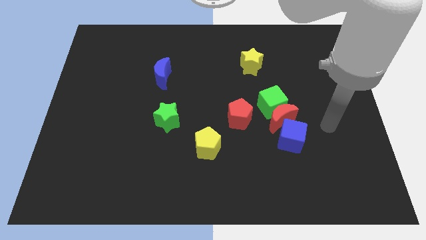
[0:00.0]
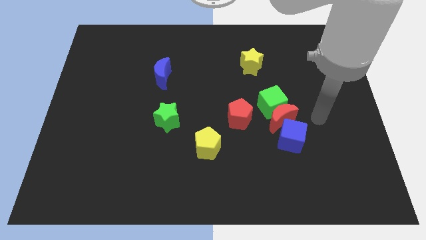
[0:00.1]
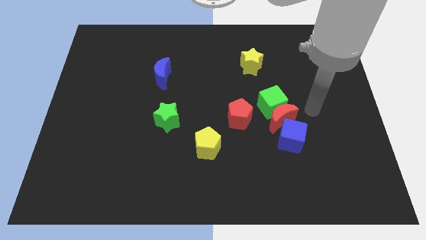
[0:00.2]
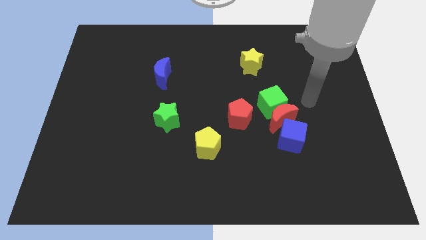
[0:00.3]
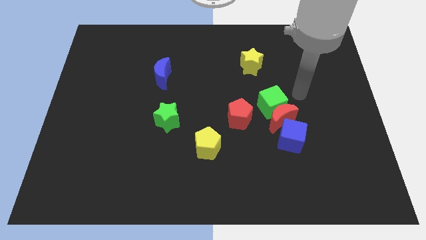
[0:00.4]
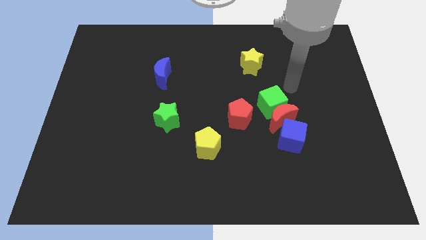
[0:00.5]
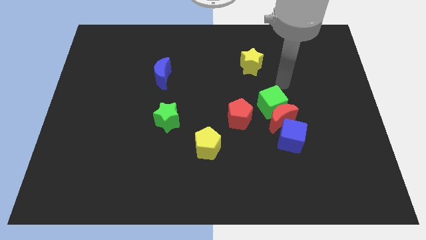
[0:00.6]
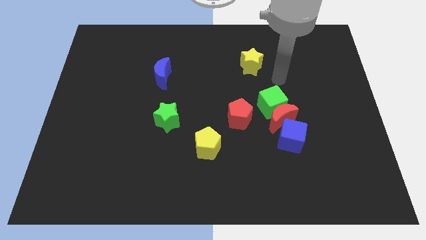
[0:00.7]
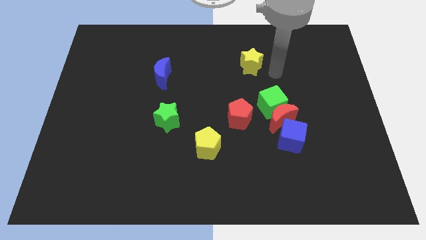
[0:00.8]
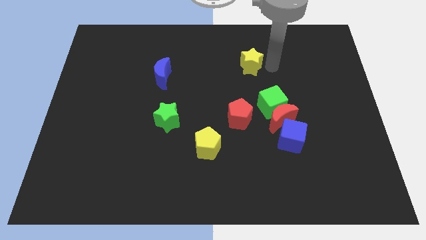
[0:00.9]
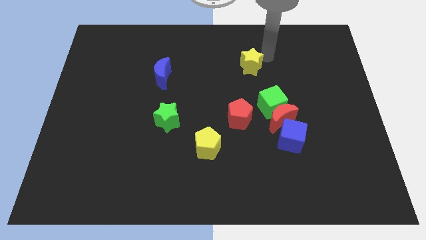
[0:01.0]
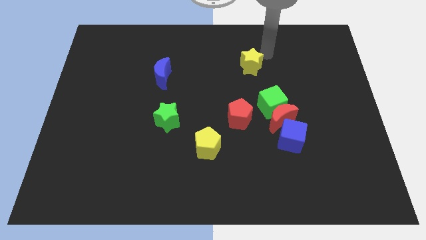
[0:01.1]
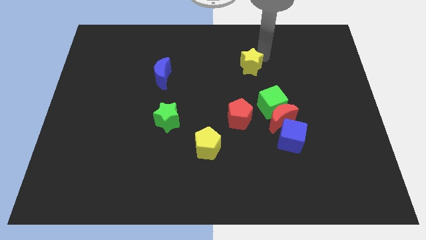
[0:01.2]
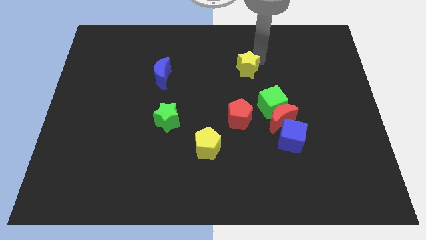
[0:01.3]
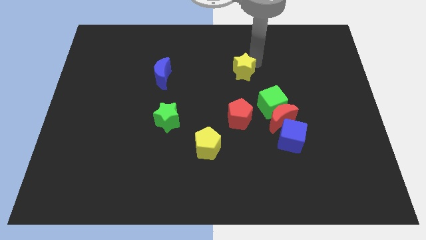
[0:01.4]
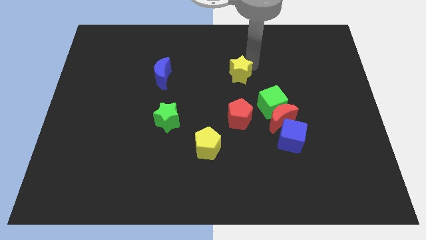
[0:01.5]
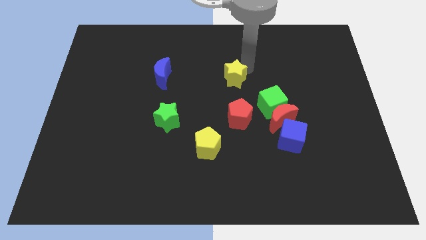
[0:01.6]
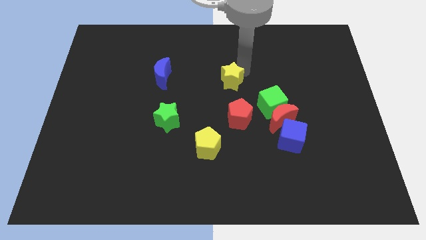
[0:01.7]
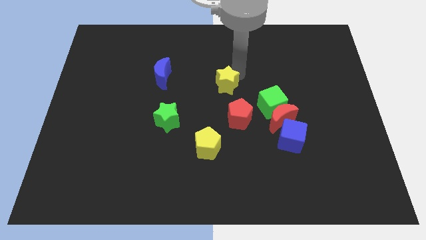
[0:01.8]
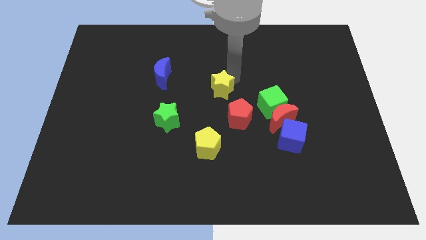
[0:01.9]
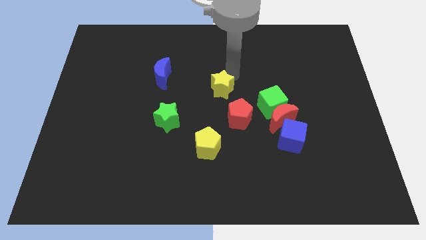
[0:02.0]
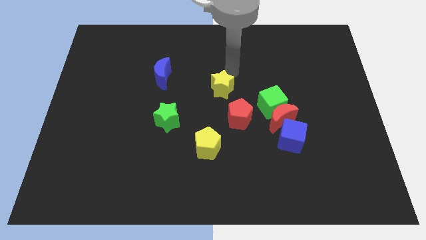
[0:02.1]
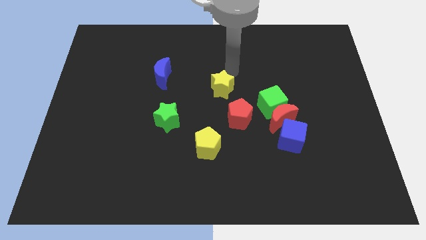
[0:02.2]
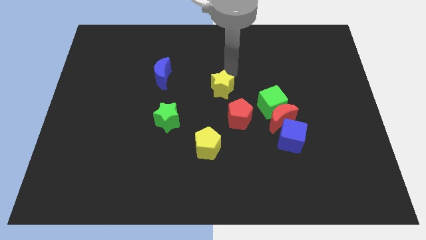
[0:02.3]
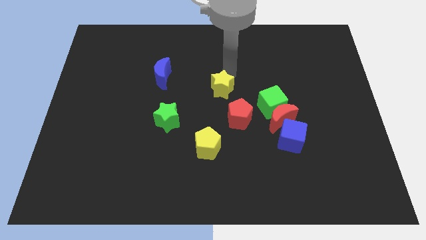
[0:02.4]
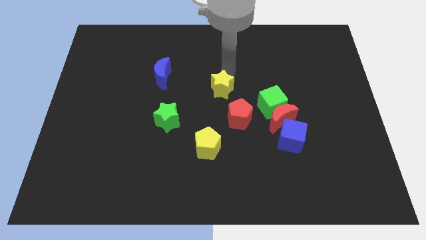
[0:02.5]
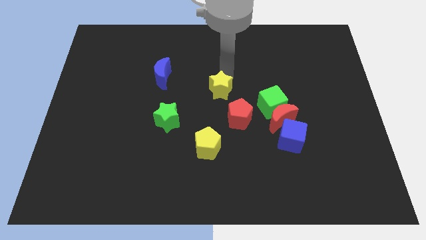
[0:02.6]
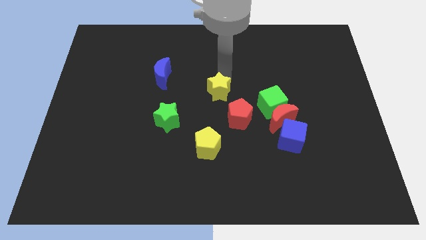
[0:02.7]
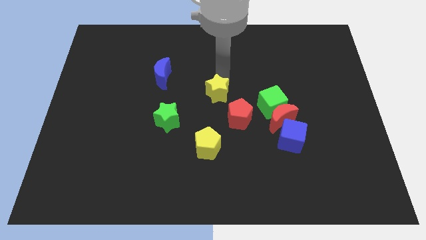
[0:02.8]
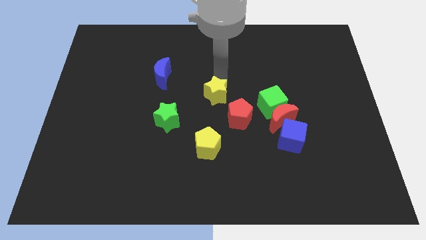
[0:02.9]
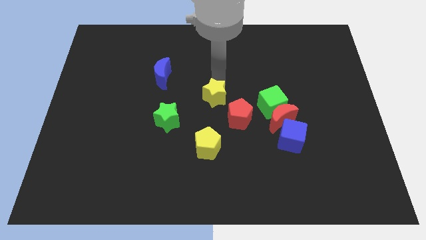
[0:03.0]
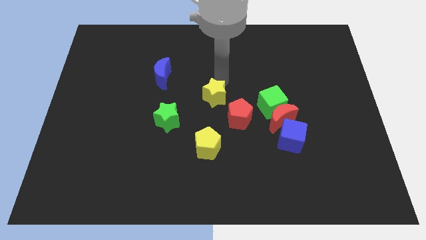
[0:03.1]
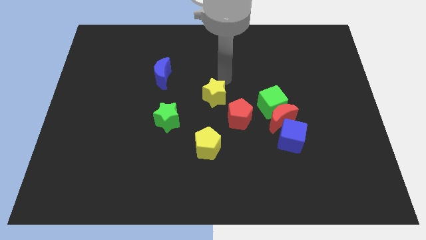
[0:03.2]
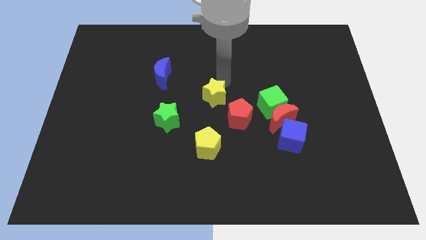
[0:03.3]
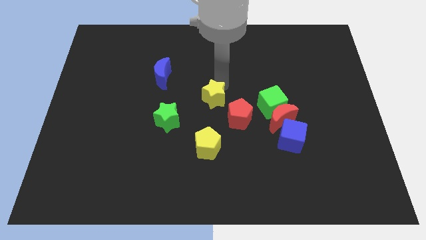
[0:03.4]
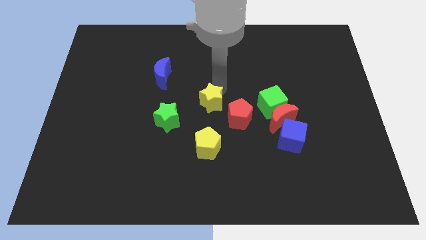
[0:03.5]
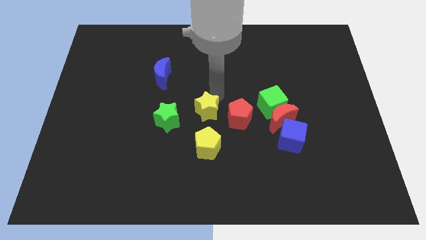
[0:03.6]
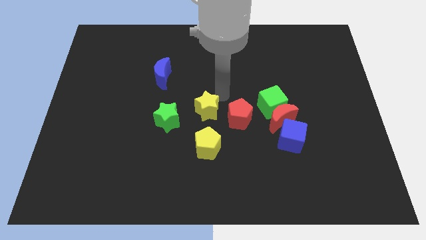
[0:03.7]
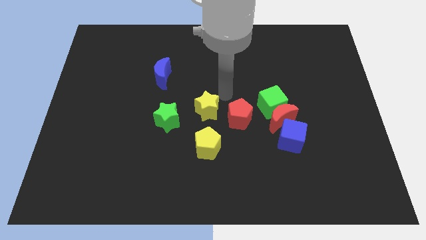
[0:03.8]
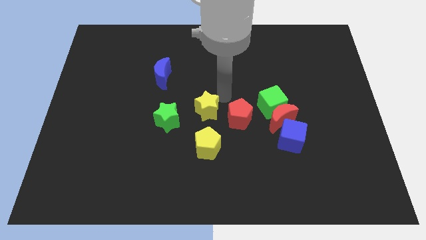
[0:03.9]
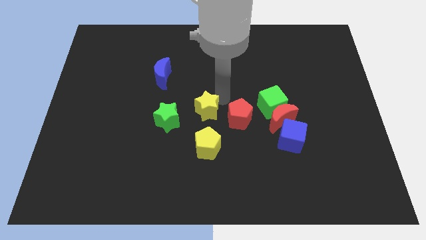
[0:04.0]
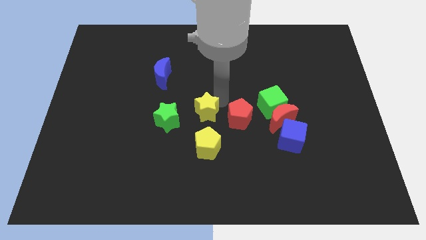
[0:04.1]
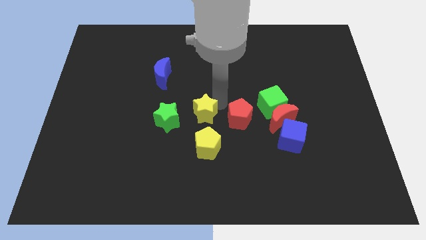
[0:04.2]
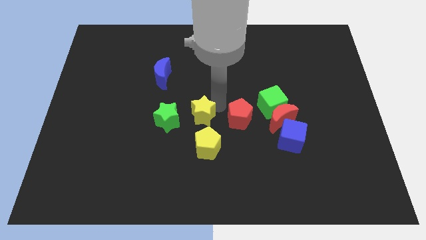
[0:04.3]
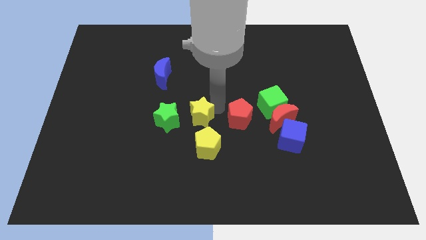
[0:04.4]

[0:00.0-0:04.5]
push the yellow star downwards and to the left diagonally

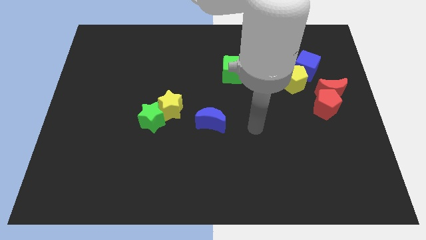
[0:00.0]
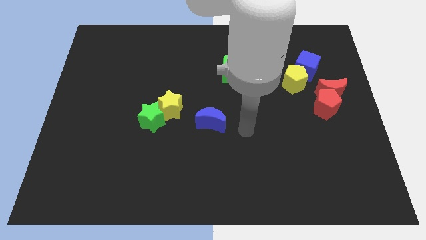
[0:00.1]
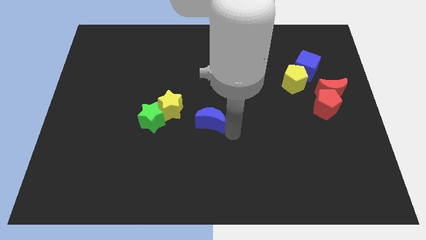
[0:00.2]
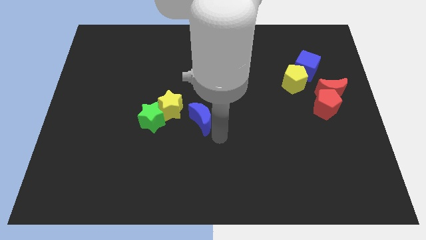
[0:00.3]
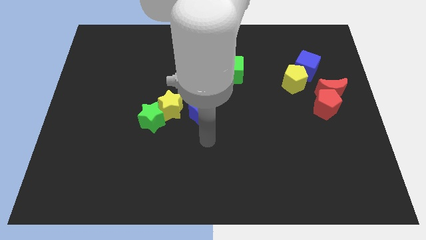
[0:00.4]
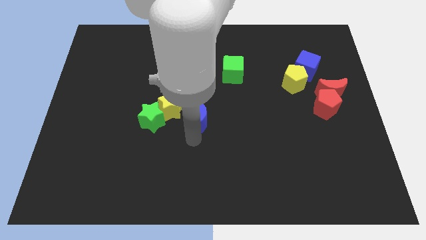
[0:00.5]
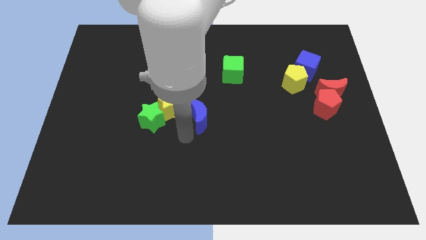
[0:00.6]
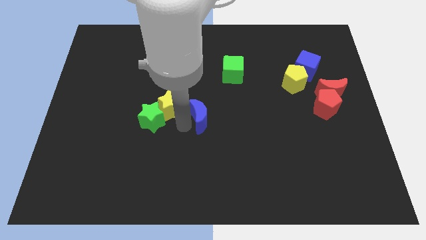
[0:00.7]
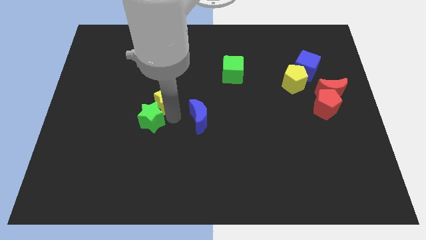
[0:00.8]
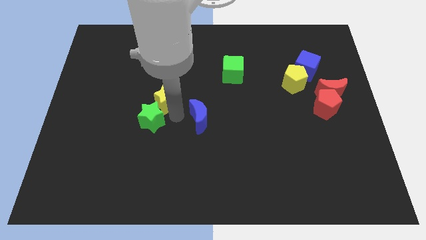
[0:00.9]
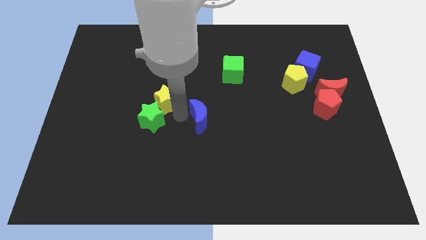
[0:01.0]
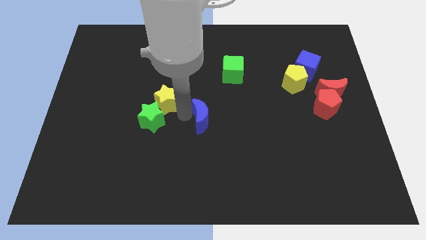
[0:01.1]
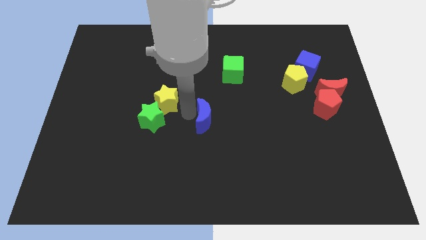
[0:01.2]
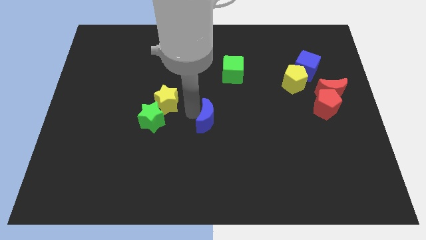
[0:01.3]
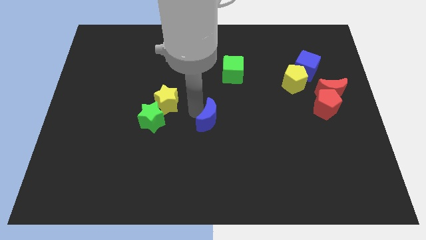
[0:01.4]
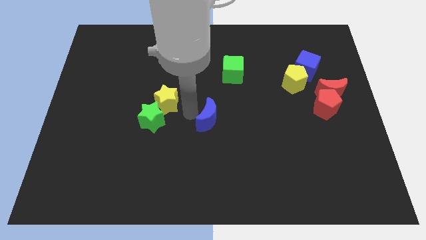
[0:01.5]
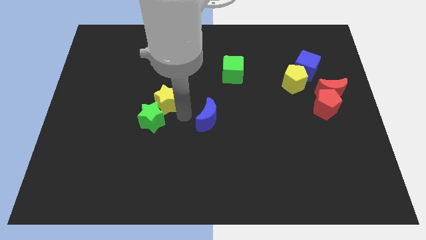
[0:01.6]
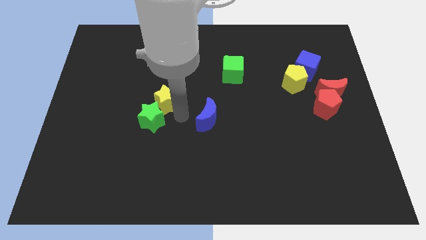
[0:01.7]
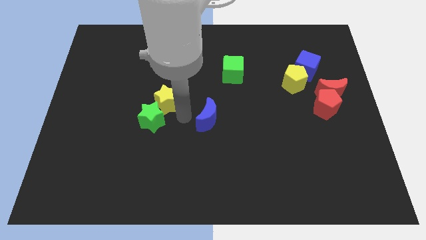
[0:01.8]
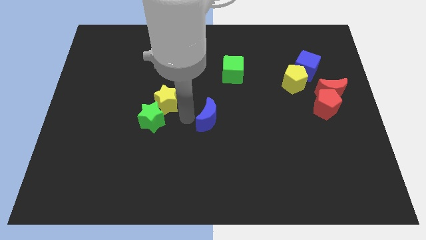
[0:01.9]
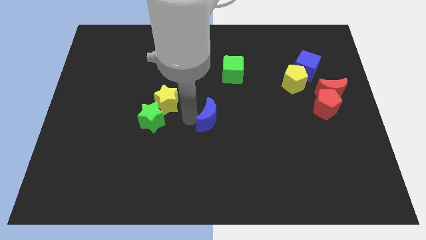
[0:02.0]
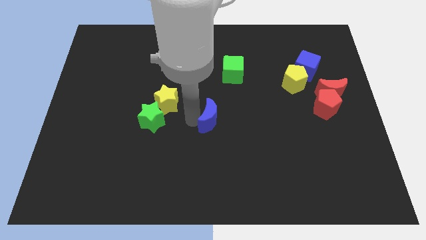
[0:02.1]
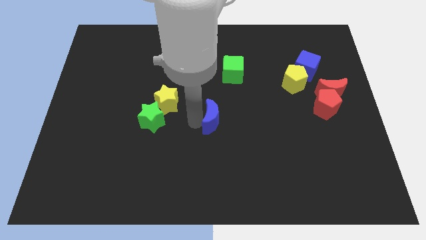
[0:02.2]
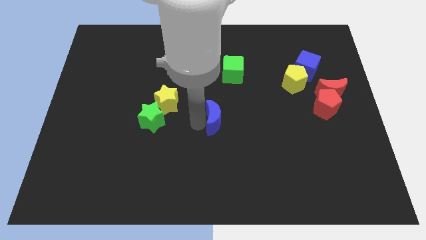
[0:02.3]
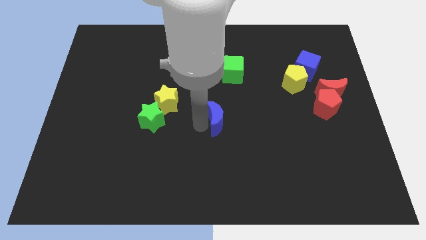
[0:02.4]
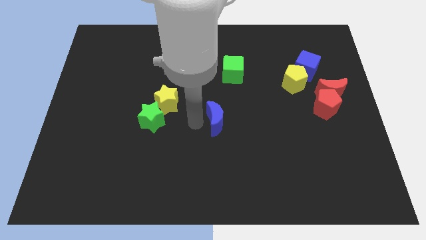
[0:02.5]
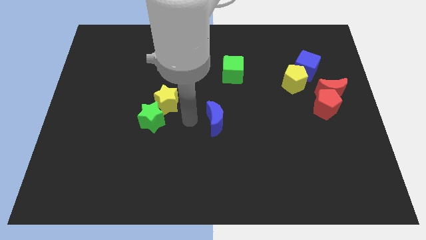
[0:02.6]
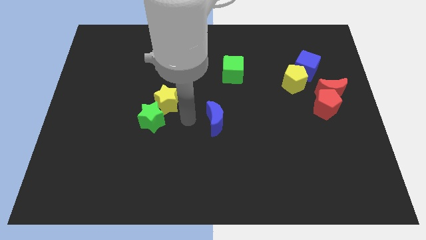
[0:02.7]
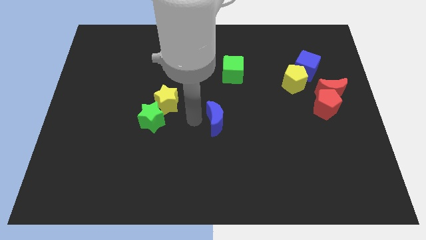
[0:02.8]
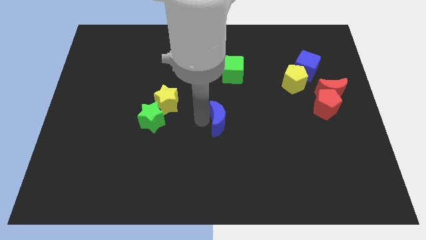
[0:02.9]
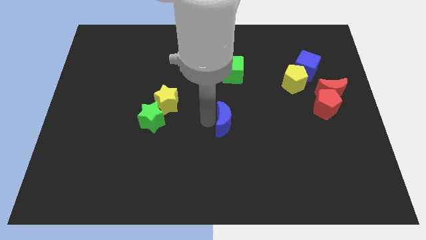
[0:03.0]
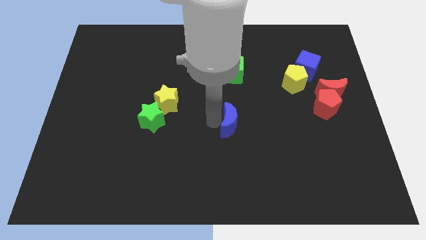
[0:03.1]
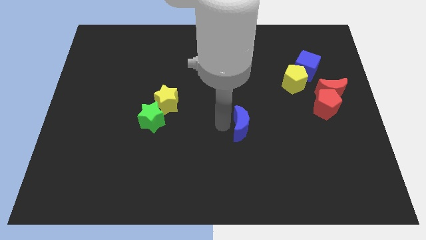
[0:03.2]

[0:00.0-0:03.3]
push the blue moon right somewhat

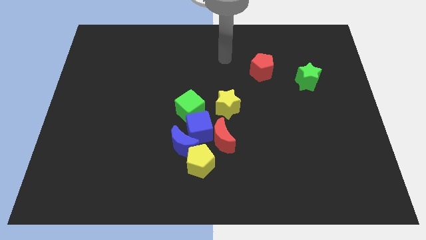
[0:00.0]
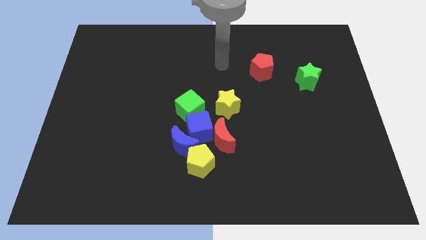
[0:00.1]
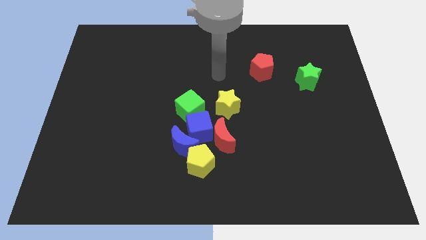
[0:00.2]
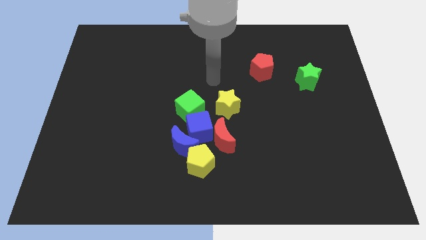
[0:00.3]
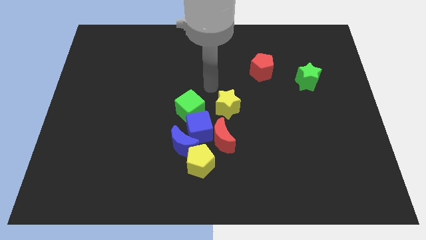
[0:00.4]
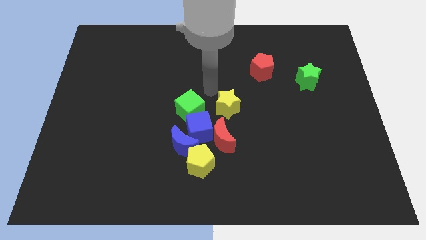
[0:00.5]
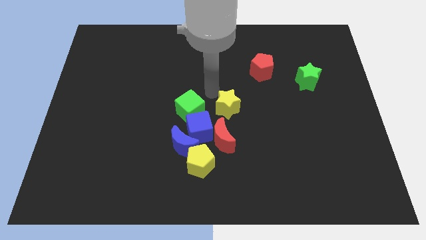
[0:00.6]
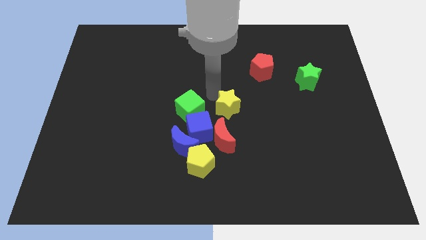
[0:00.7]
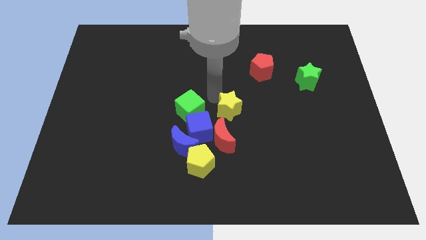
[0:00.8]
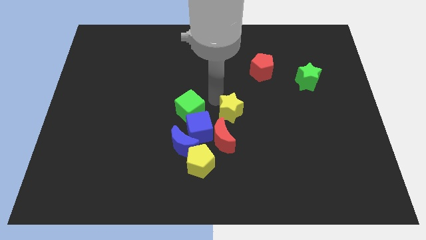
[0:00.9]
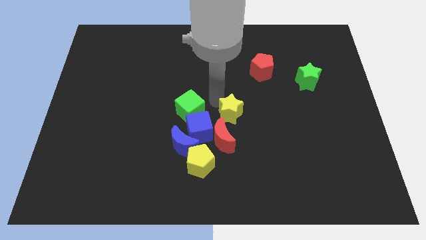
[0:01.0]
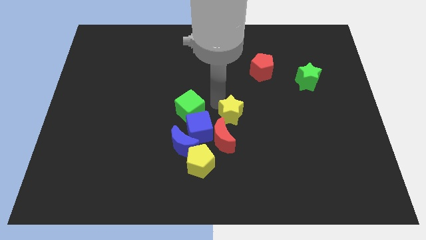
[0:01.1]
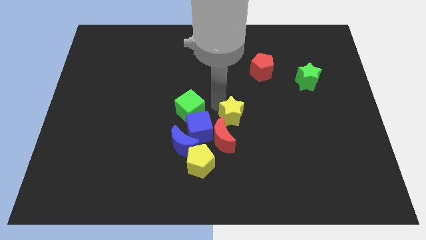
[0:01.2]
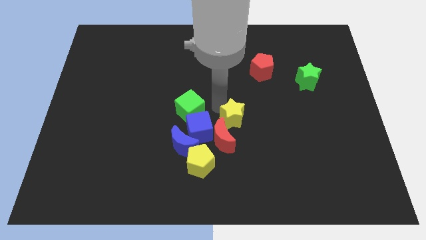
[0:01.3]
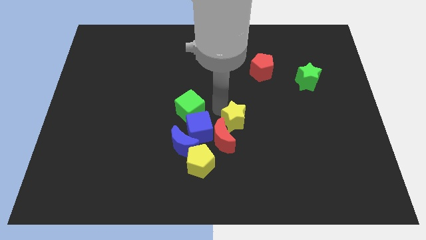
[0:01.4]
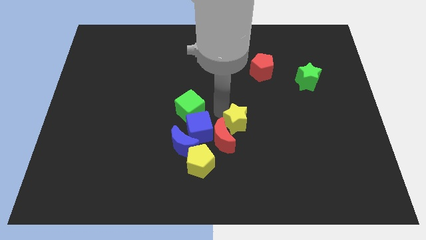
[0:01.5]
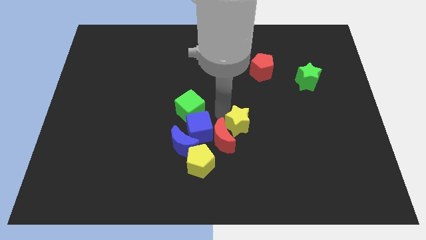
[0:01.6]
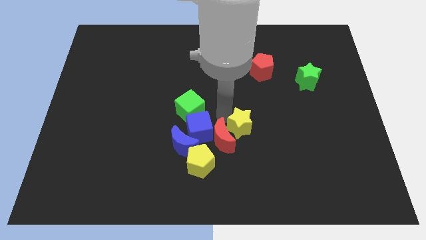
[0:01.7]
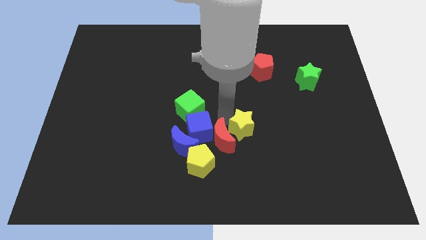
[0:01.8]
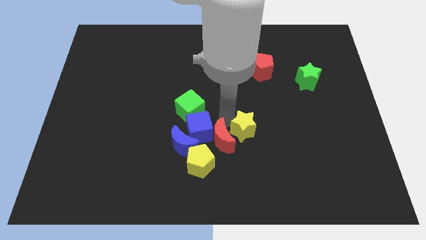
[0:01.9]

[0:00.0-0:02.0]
slightly move the yellow star down and right
